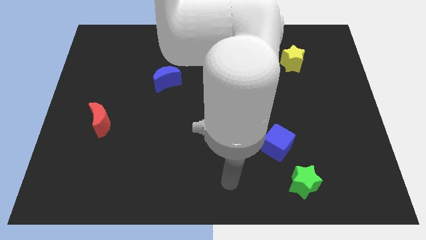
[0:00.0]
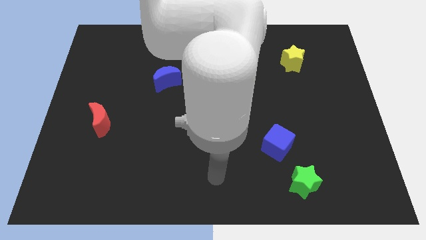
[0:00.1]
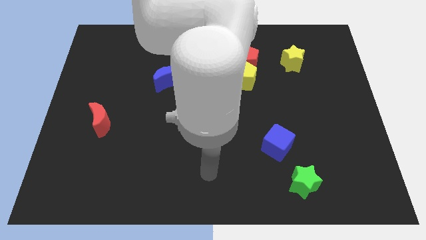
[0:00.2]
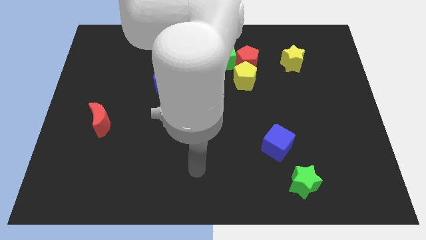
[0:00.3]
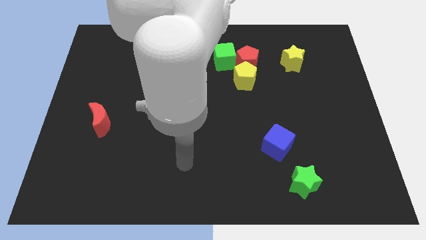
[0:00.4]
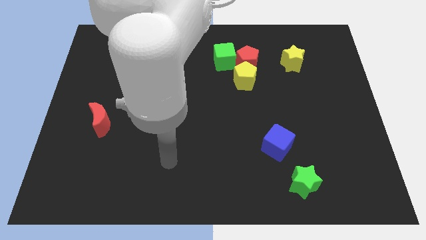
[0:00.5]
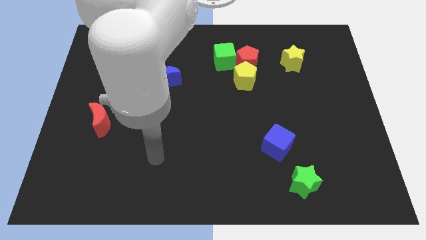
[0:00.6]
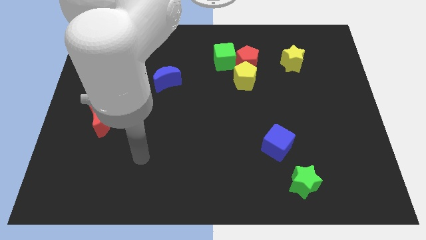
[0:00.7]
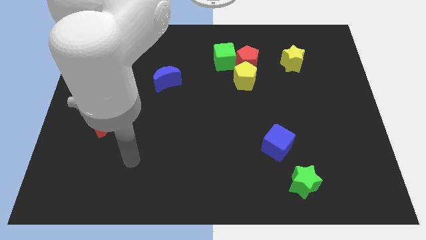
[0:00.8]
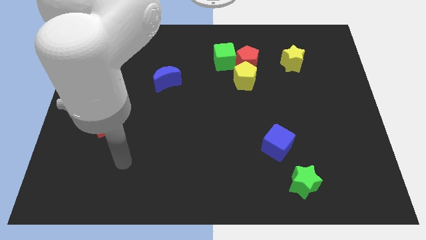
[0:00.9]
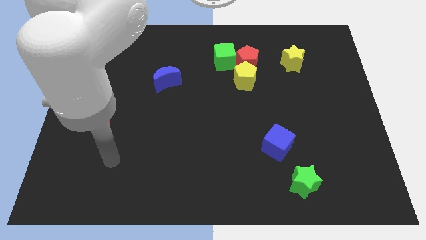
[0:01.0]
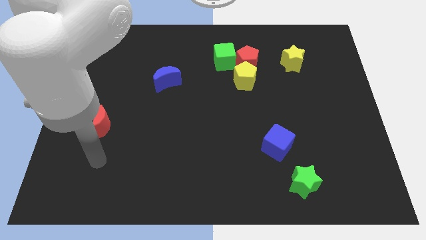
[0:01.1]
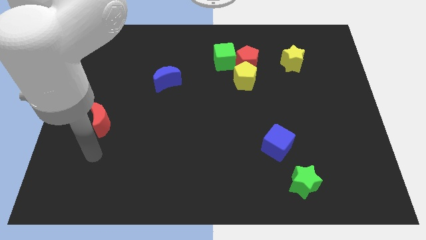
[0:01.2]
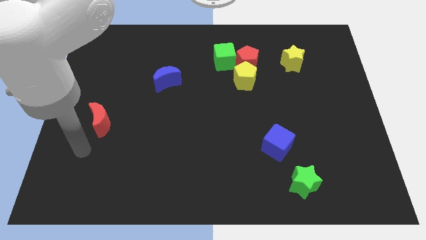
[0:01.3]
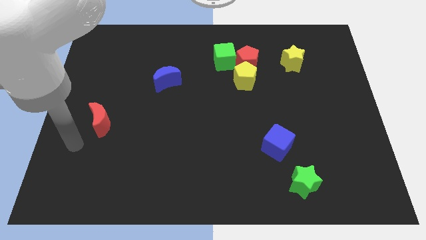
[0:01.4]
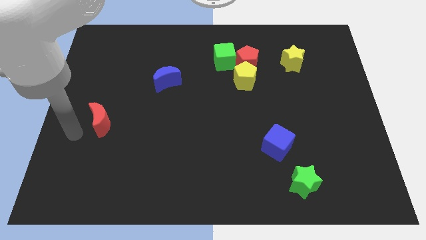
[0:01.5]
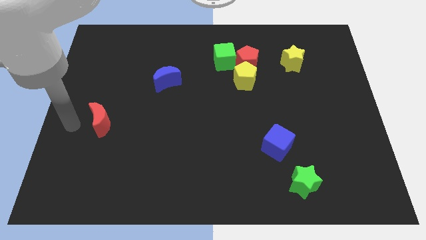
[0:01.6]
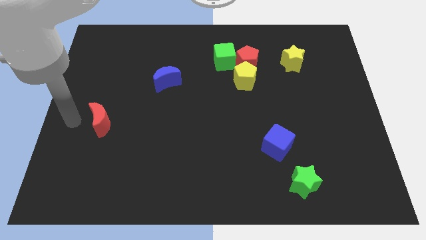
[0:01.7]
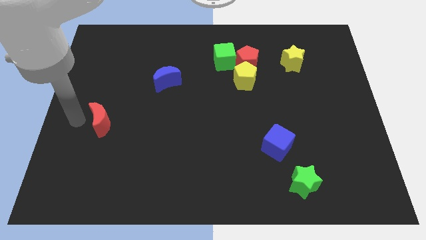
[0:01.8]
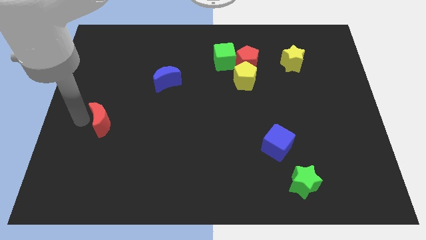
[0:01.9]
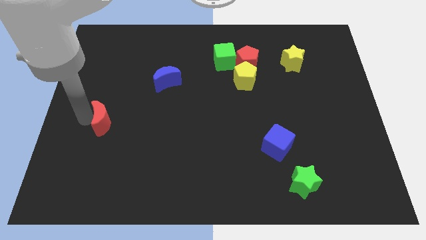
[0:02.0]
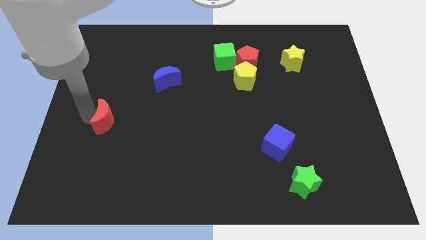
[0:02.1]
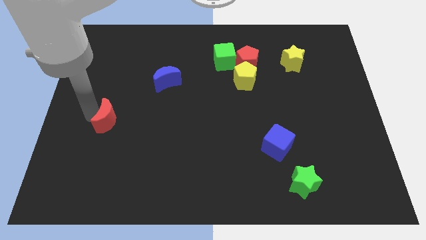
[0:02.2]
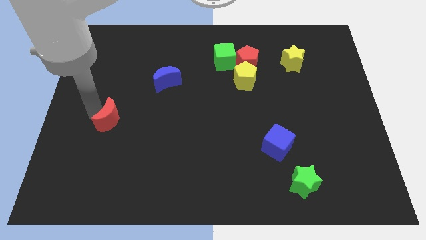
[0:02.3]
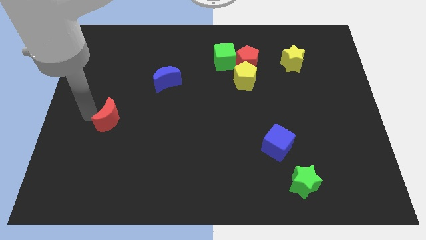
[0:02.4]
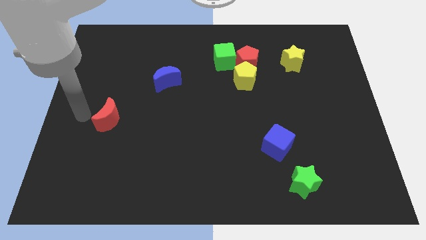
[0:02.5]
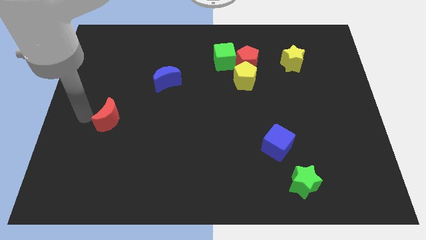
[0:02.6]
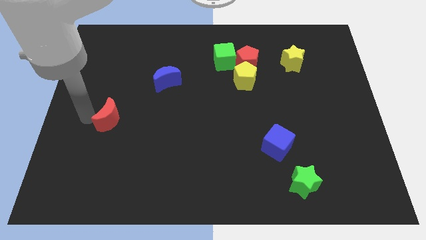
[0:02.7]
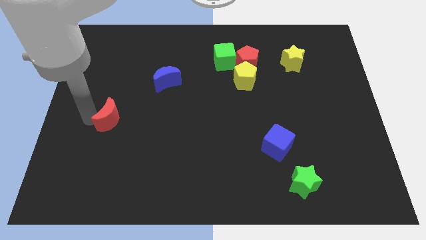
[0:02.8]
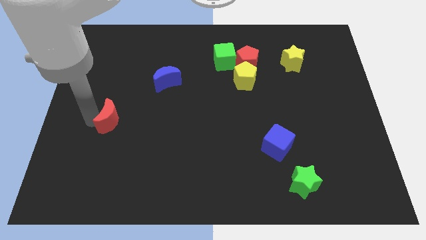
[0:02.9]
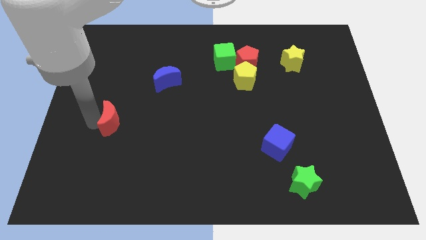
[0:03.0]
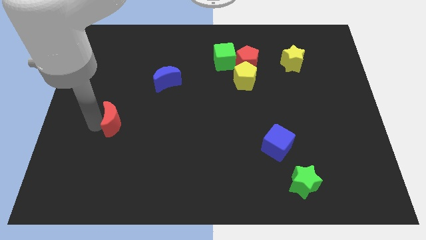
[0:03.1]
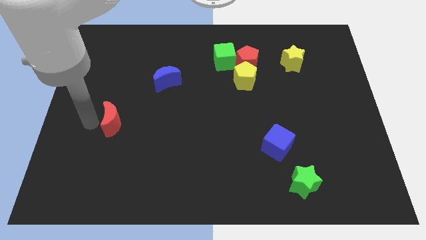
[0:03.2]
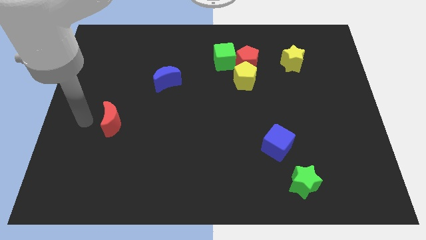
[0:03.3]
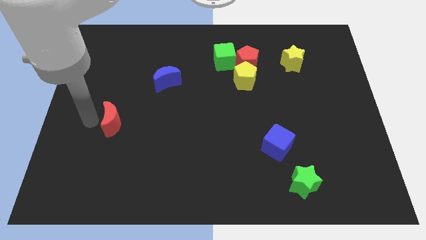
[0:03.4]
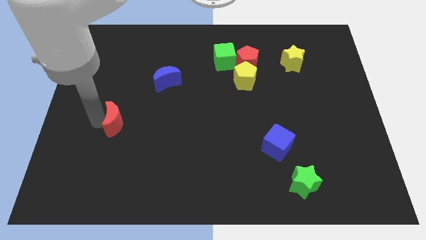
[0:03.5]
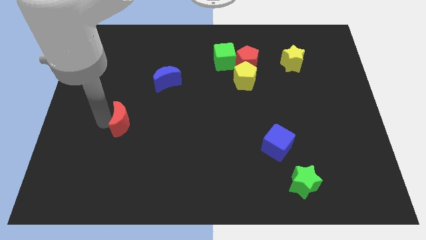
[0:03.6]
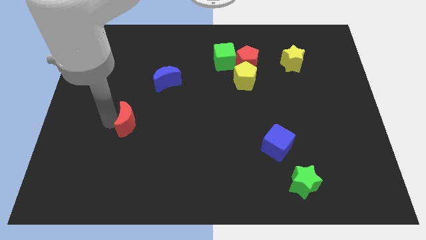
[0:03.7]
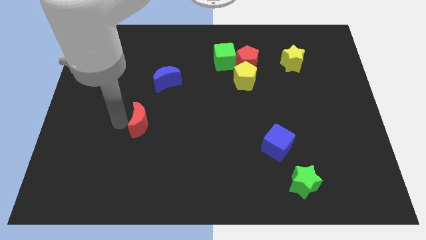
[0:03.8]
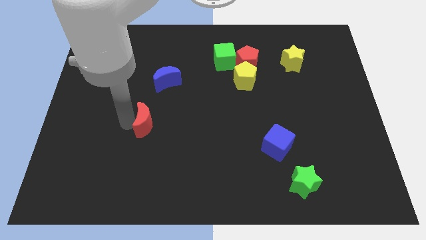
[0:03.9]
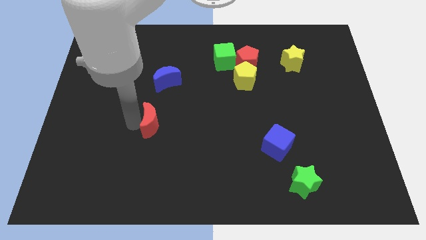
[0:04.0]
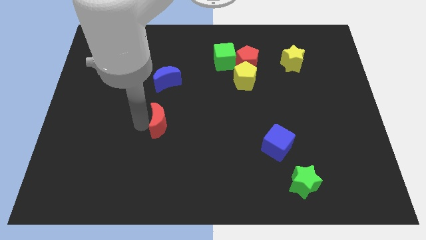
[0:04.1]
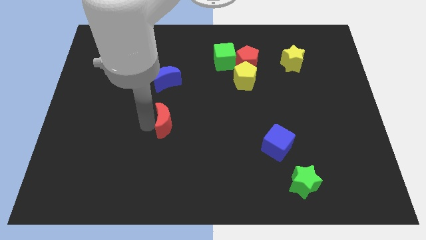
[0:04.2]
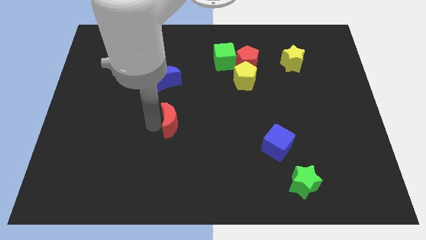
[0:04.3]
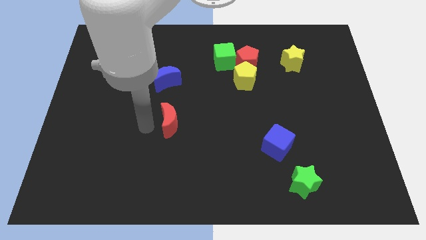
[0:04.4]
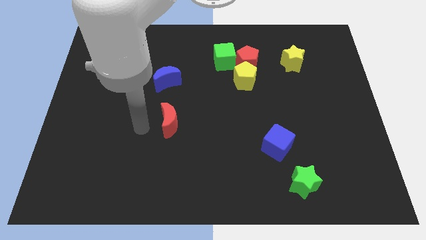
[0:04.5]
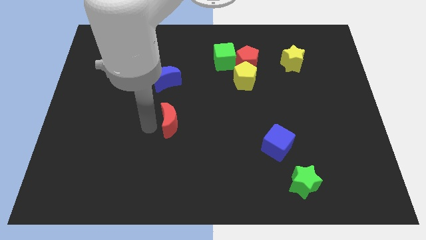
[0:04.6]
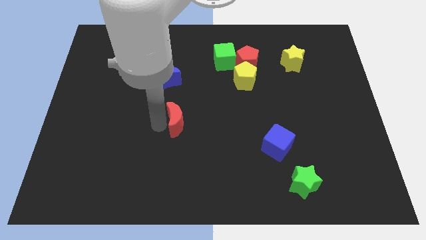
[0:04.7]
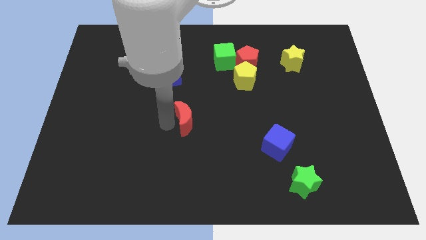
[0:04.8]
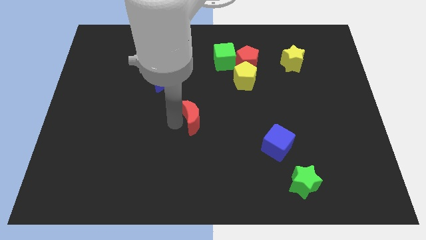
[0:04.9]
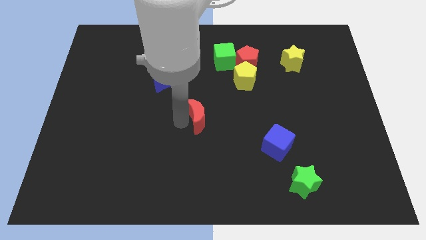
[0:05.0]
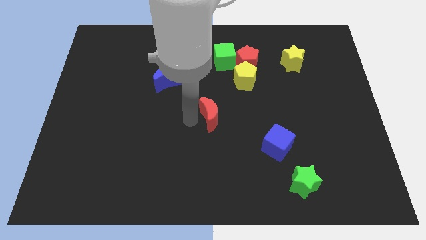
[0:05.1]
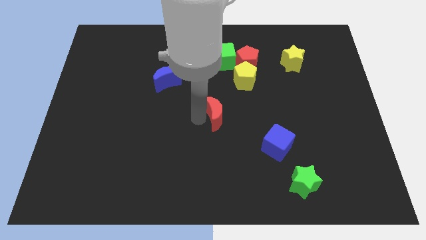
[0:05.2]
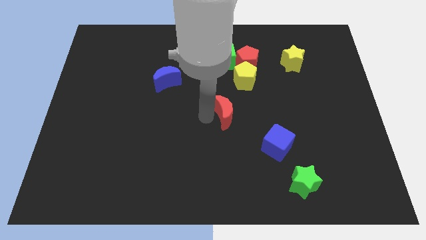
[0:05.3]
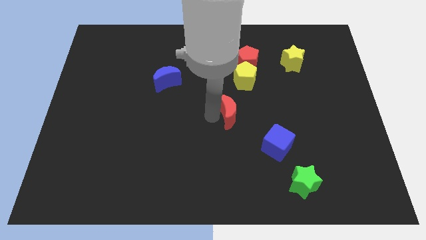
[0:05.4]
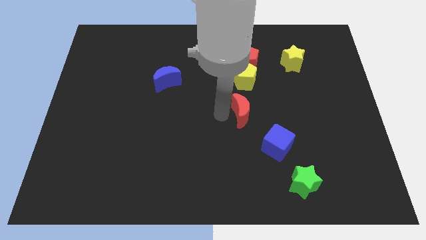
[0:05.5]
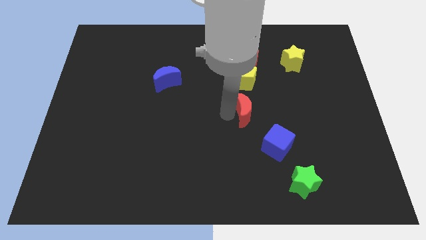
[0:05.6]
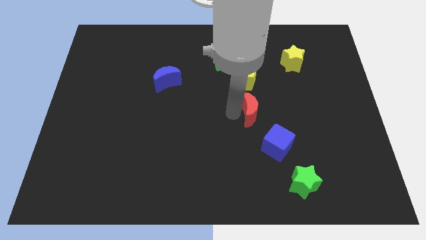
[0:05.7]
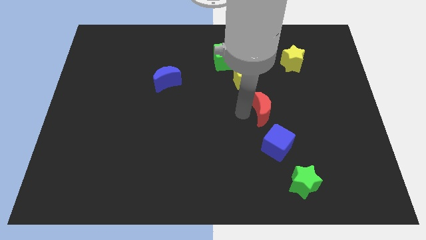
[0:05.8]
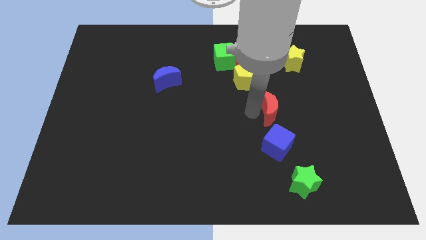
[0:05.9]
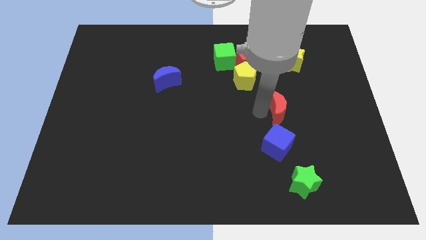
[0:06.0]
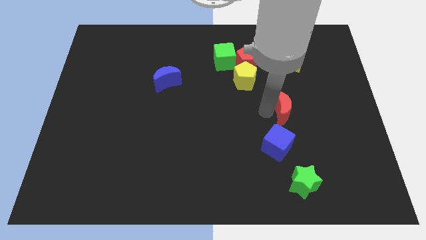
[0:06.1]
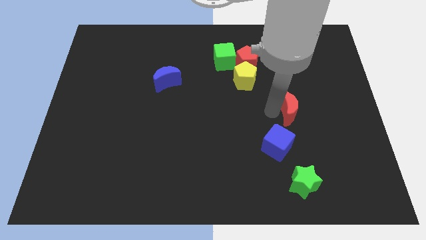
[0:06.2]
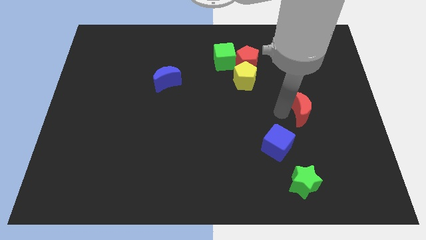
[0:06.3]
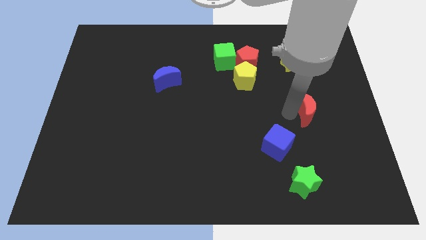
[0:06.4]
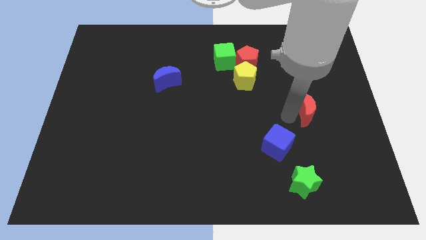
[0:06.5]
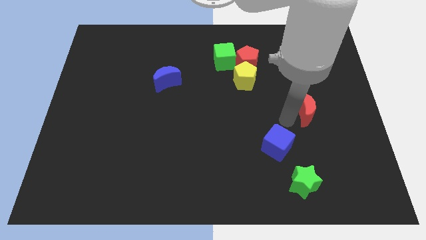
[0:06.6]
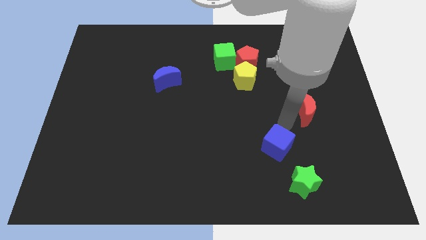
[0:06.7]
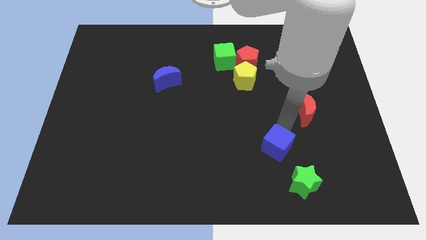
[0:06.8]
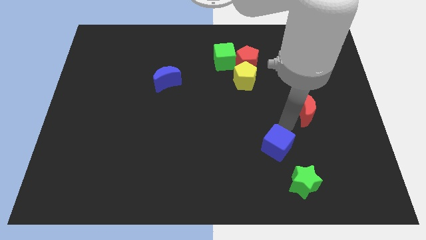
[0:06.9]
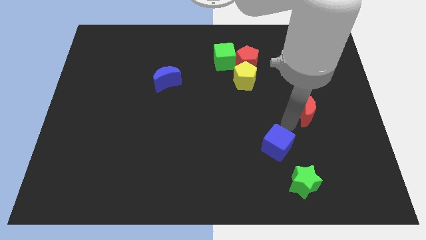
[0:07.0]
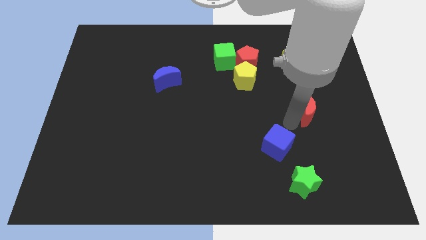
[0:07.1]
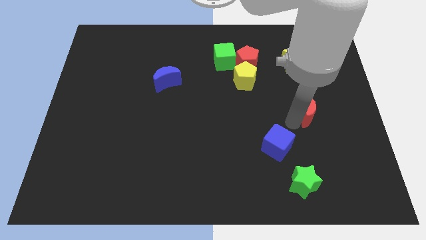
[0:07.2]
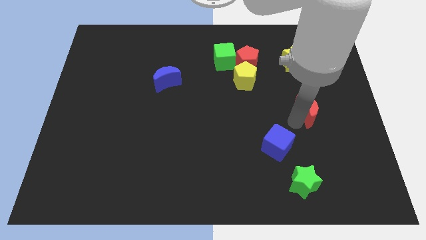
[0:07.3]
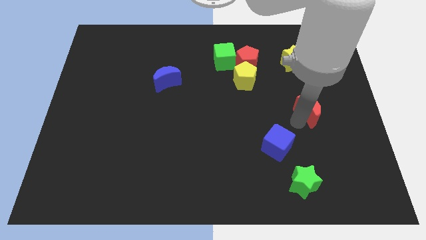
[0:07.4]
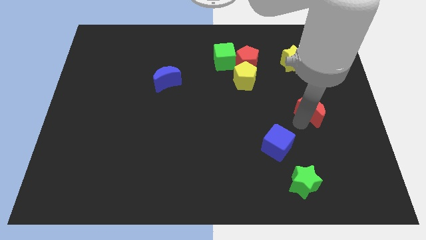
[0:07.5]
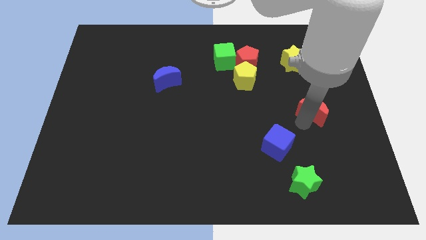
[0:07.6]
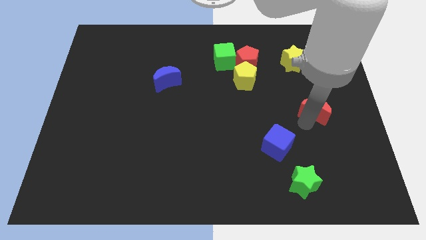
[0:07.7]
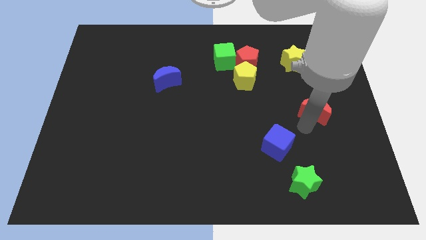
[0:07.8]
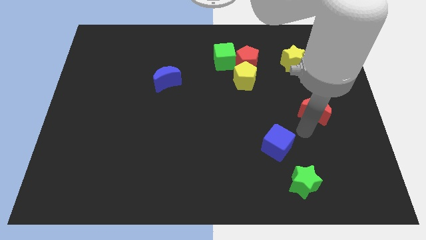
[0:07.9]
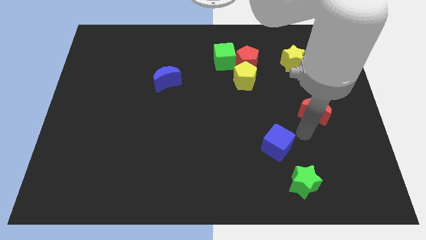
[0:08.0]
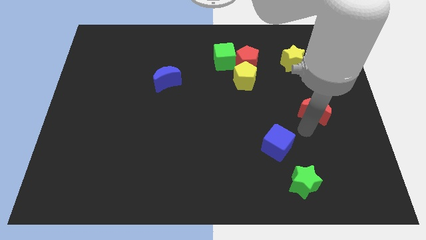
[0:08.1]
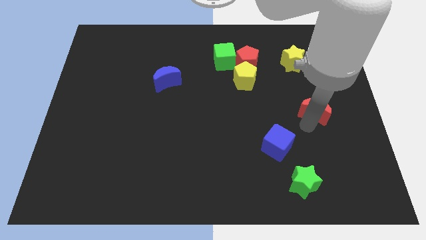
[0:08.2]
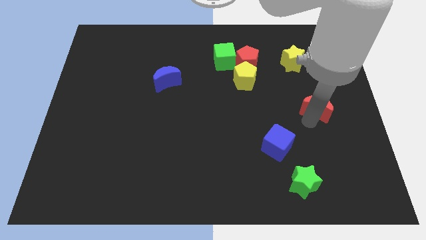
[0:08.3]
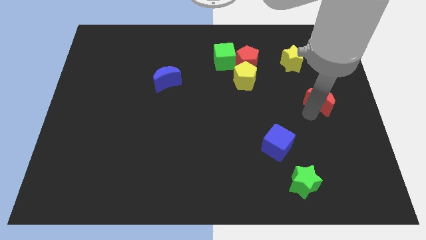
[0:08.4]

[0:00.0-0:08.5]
move the red moon to the right side of the board
